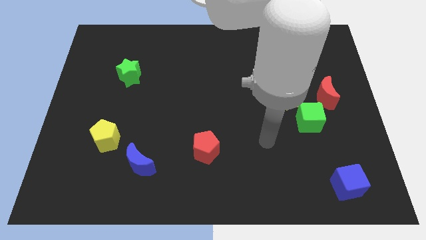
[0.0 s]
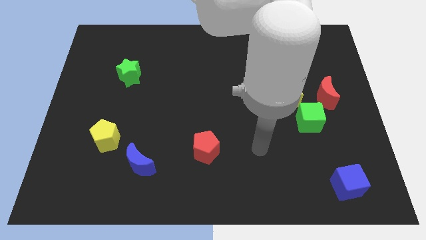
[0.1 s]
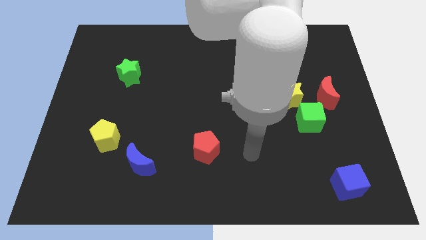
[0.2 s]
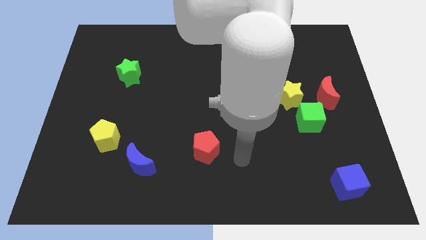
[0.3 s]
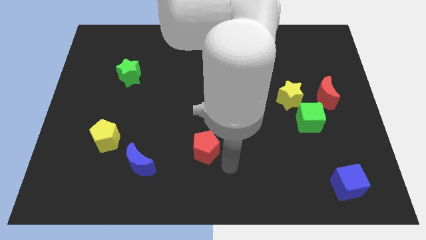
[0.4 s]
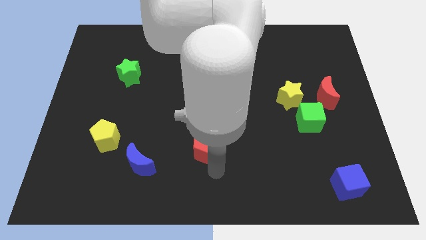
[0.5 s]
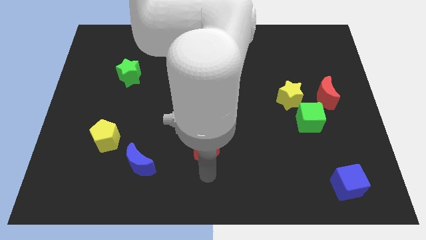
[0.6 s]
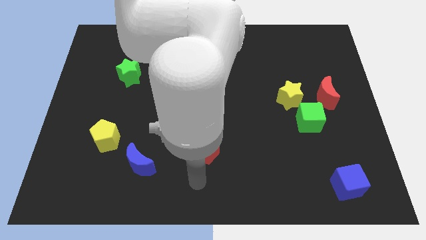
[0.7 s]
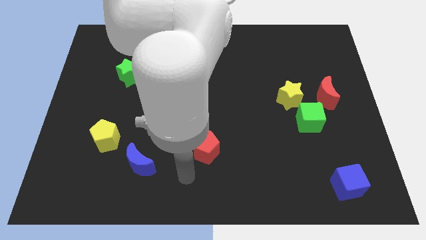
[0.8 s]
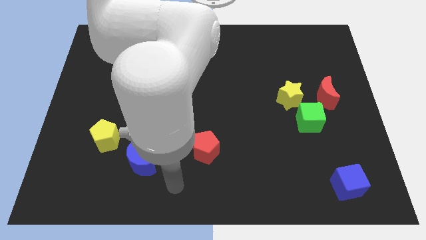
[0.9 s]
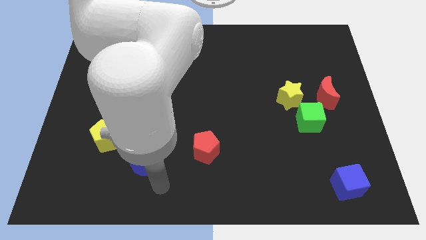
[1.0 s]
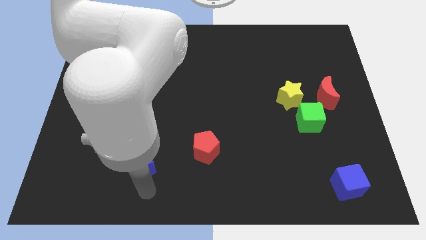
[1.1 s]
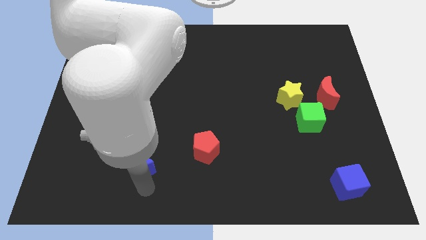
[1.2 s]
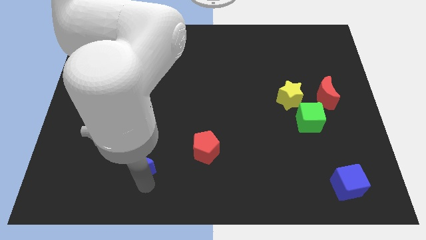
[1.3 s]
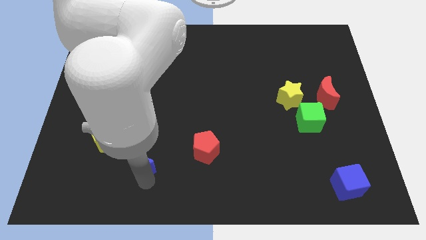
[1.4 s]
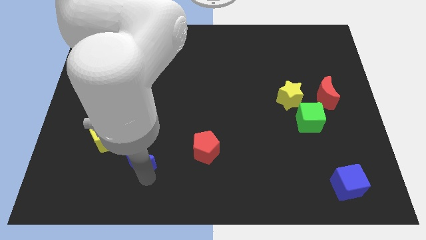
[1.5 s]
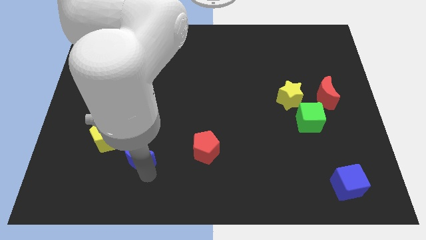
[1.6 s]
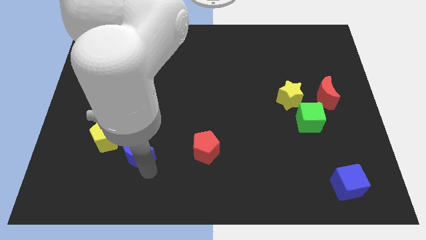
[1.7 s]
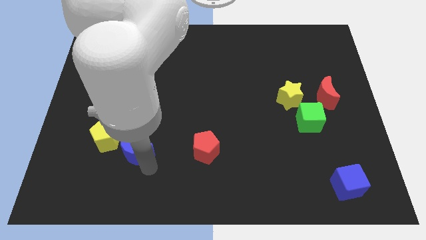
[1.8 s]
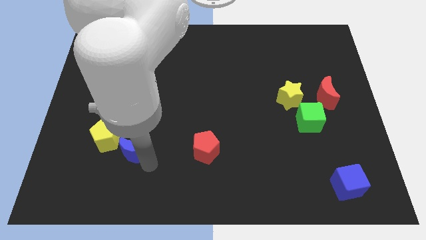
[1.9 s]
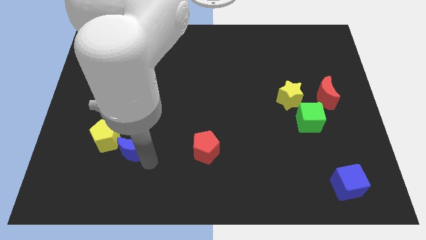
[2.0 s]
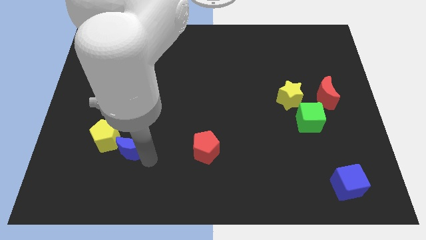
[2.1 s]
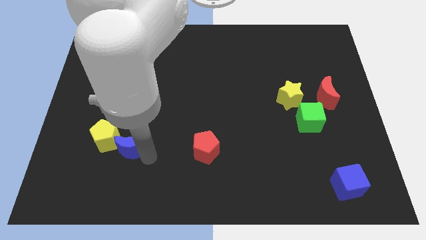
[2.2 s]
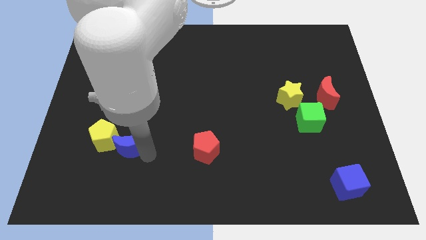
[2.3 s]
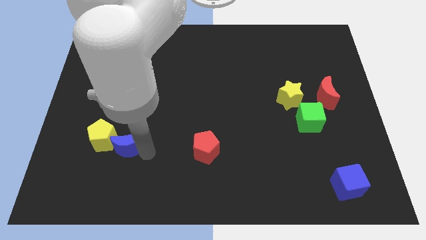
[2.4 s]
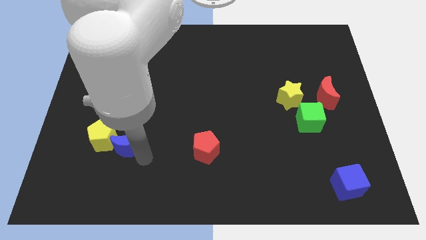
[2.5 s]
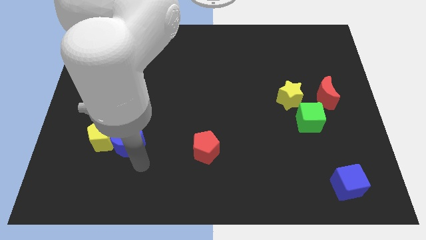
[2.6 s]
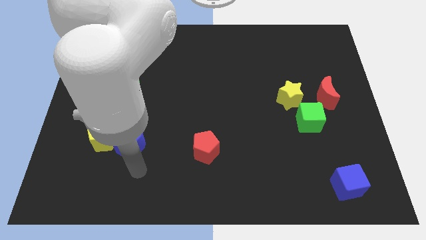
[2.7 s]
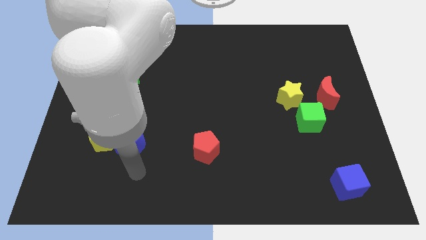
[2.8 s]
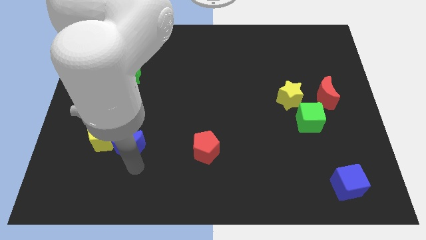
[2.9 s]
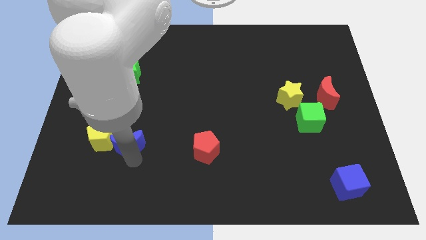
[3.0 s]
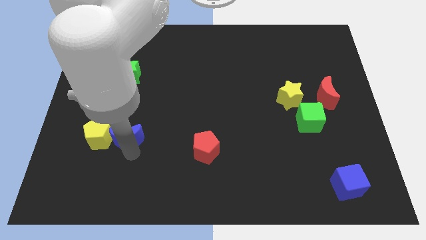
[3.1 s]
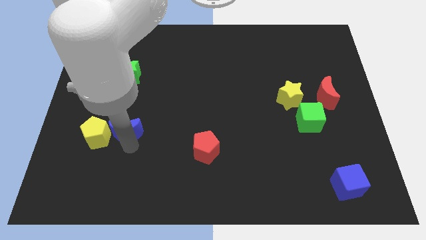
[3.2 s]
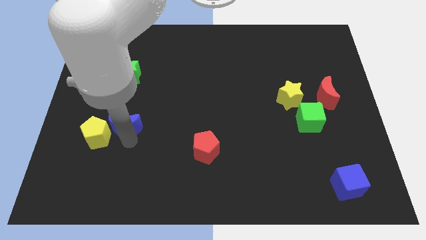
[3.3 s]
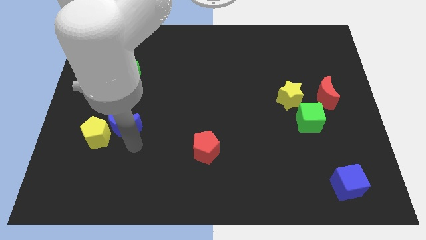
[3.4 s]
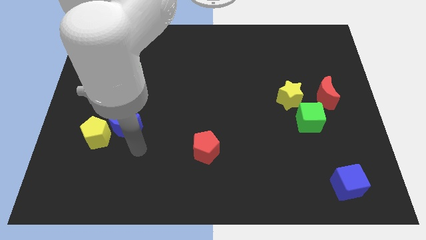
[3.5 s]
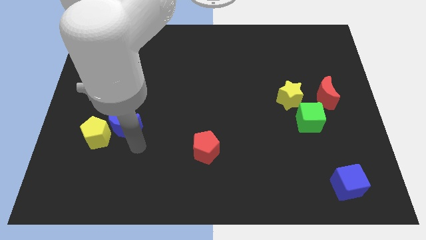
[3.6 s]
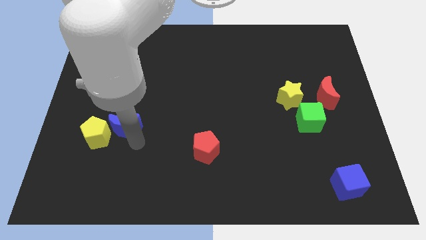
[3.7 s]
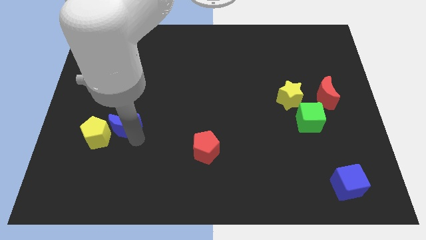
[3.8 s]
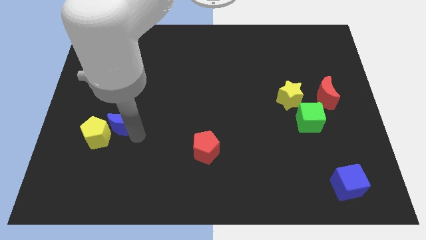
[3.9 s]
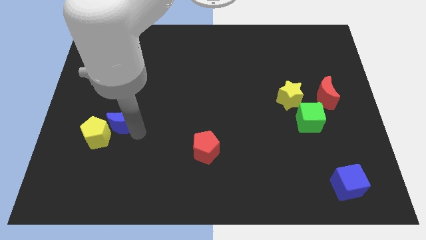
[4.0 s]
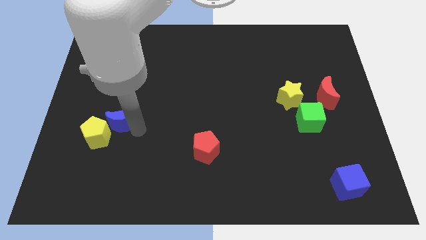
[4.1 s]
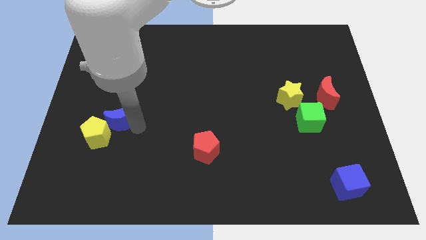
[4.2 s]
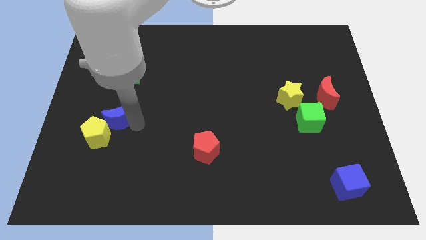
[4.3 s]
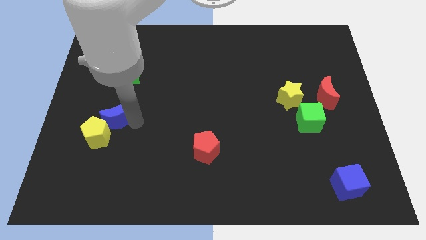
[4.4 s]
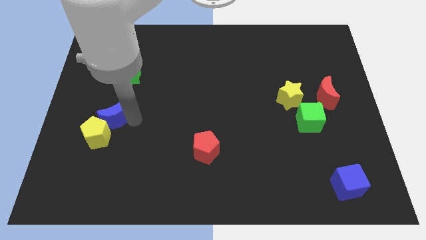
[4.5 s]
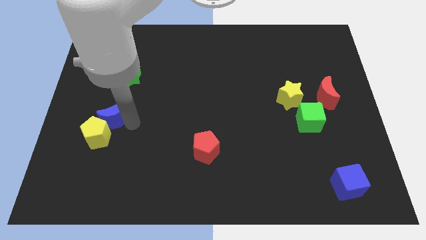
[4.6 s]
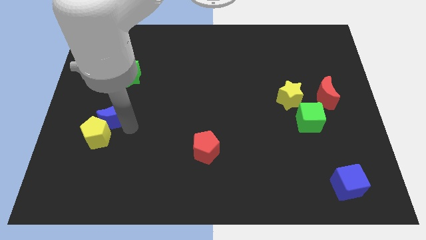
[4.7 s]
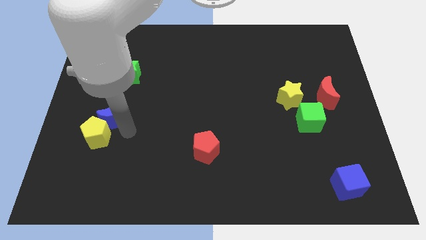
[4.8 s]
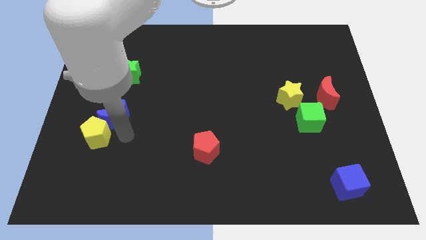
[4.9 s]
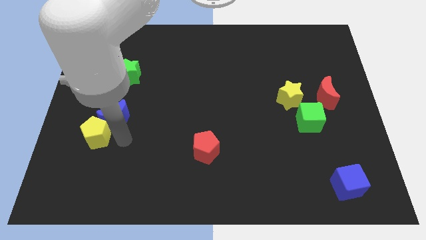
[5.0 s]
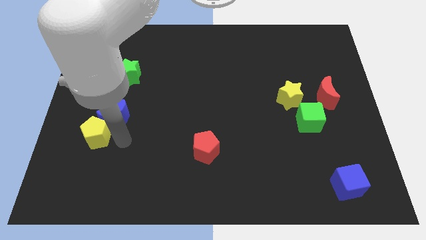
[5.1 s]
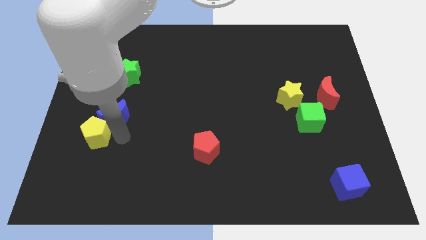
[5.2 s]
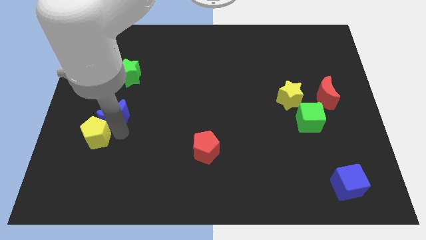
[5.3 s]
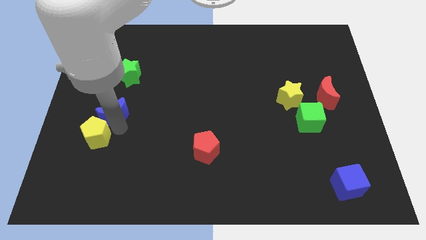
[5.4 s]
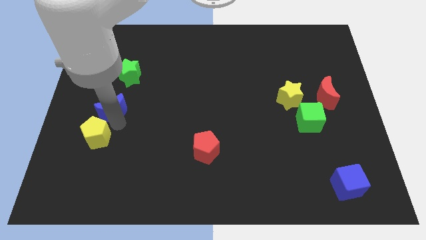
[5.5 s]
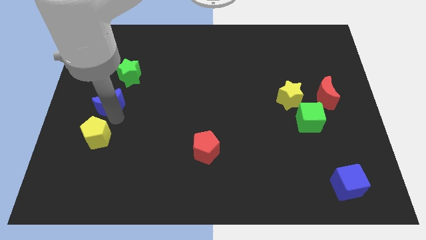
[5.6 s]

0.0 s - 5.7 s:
move the blue moon to the bottom left side of the green star

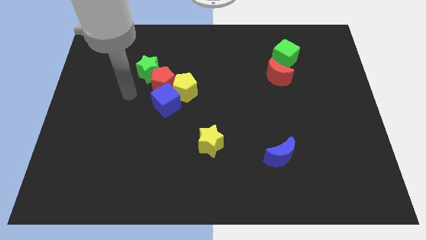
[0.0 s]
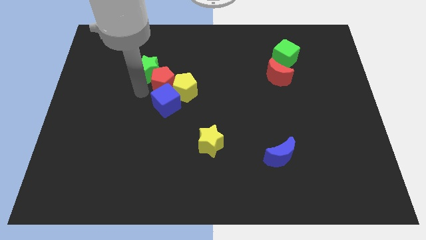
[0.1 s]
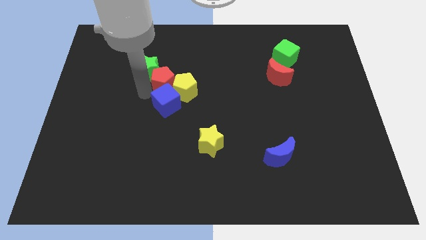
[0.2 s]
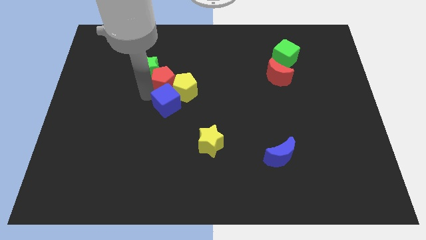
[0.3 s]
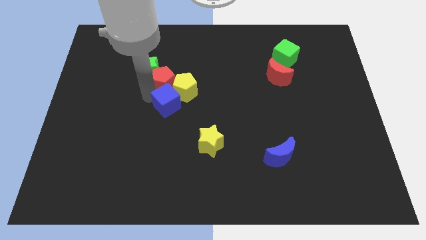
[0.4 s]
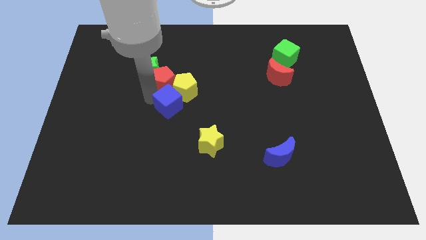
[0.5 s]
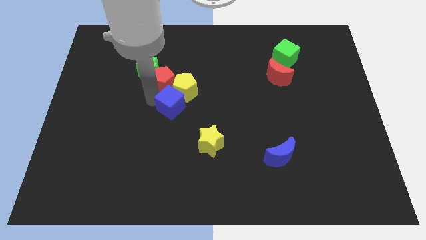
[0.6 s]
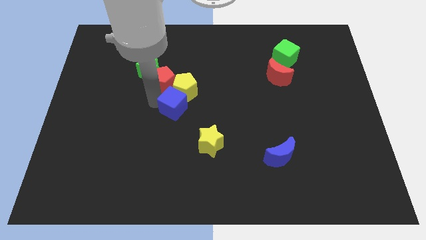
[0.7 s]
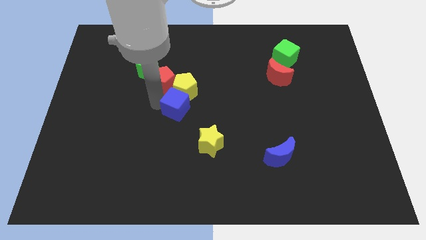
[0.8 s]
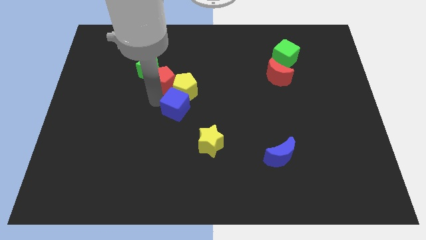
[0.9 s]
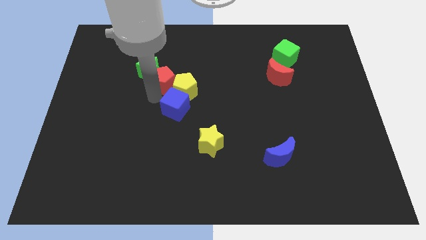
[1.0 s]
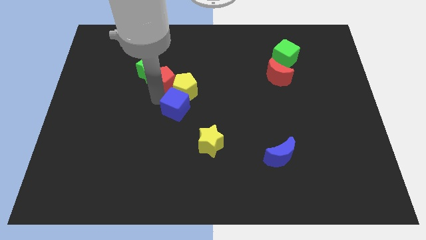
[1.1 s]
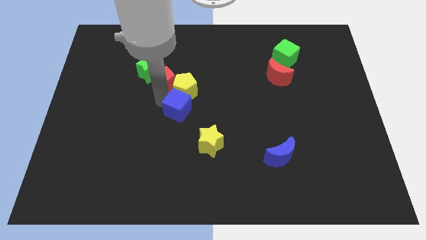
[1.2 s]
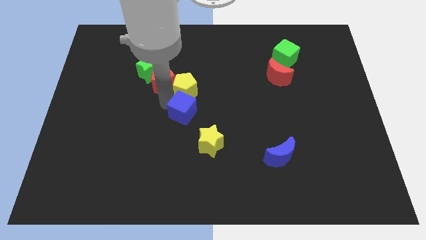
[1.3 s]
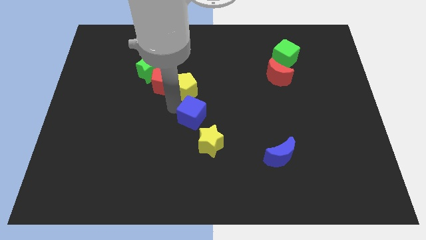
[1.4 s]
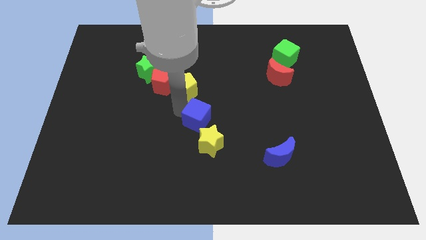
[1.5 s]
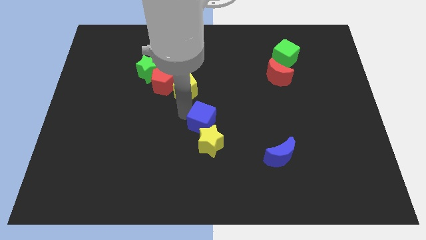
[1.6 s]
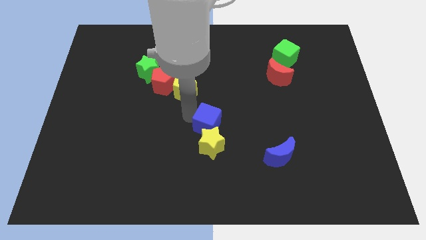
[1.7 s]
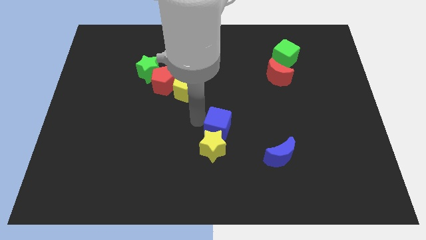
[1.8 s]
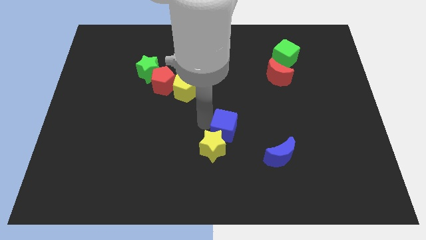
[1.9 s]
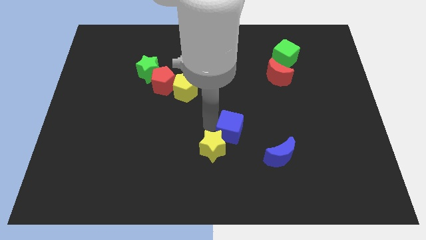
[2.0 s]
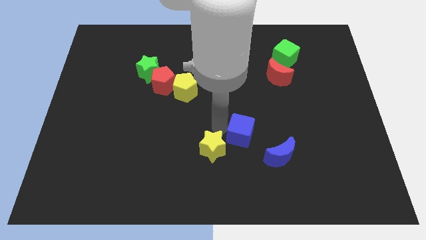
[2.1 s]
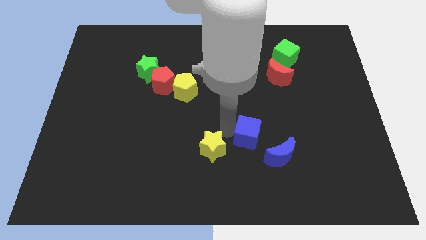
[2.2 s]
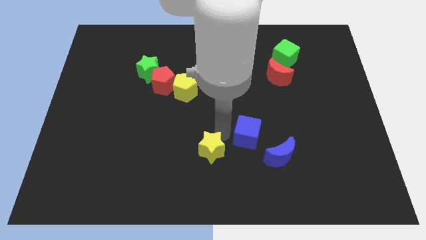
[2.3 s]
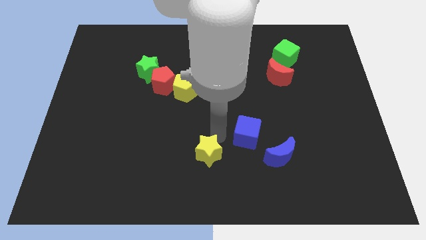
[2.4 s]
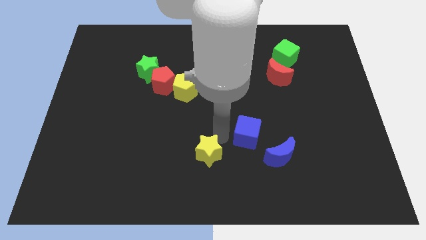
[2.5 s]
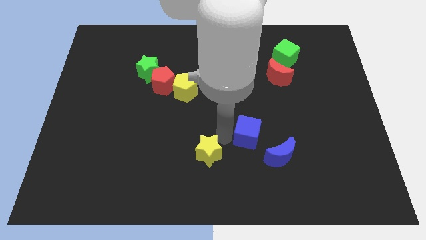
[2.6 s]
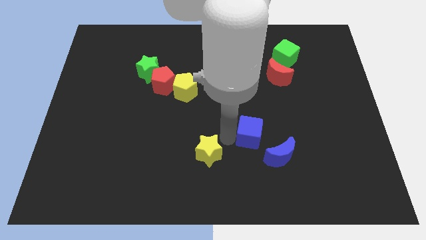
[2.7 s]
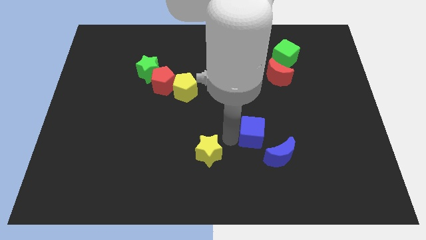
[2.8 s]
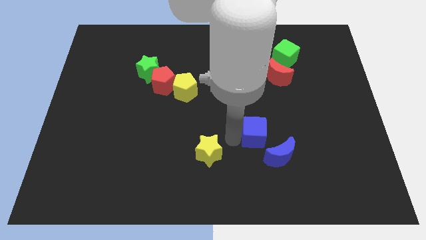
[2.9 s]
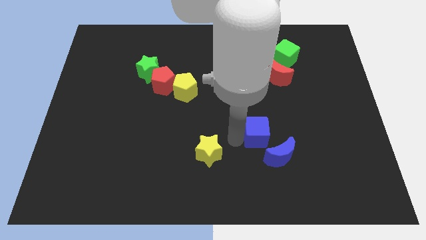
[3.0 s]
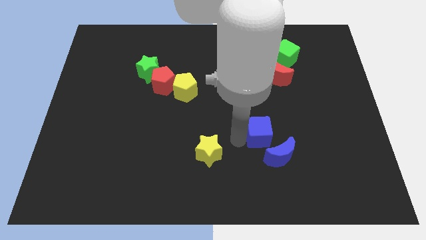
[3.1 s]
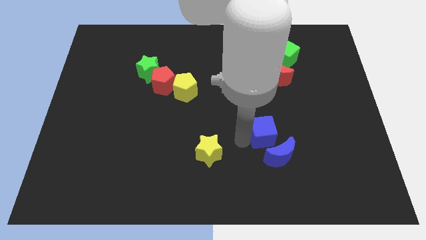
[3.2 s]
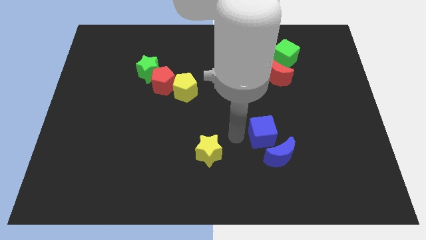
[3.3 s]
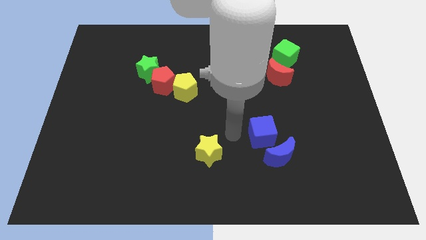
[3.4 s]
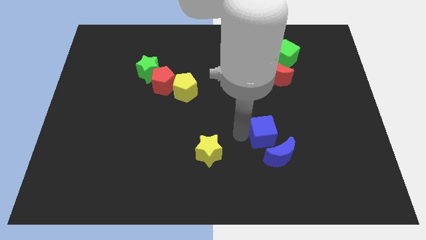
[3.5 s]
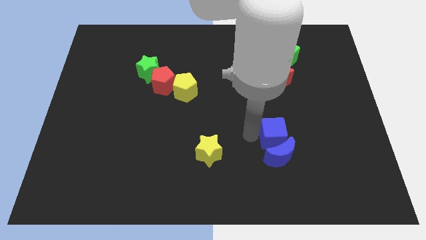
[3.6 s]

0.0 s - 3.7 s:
push the blue cube to the top right side of the blue moon
